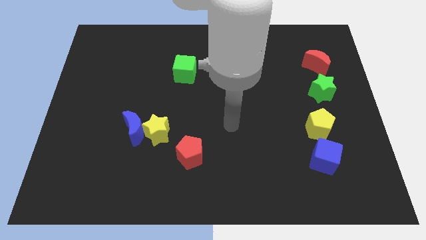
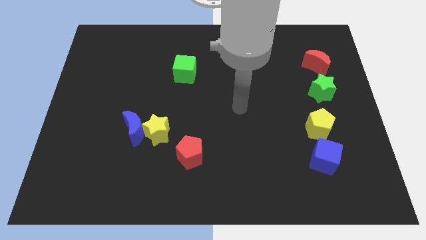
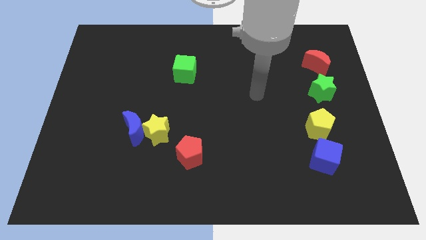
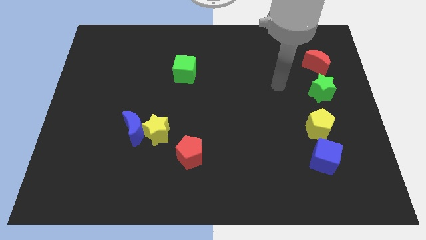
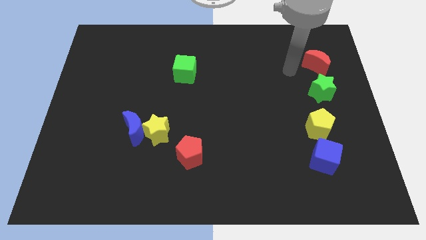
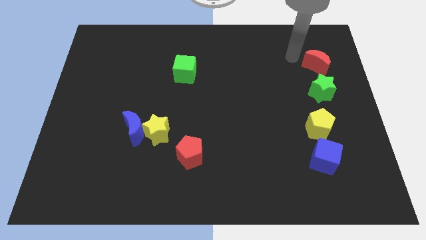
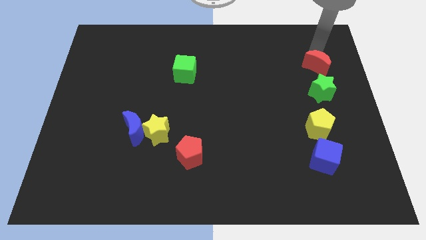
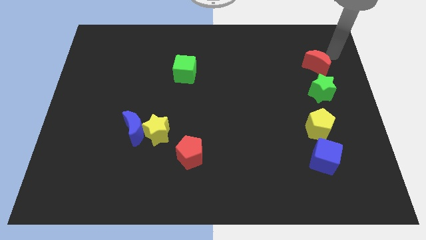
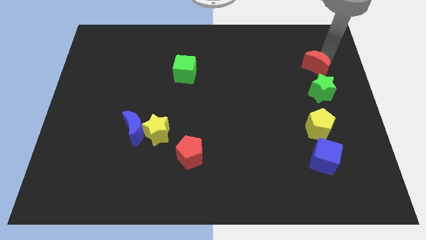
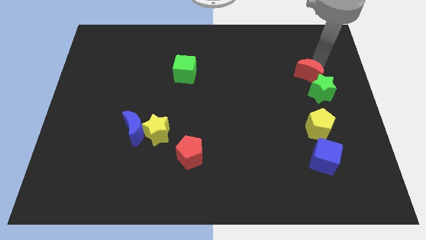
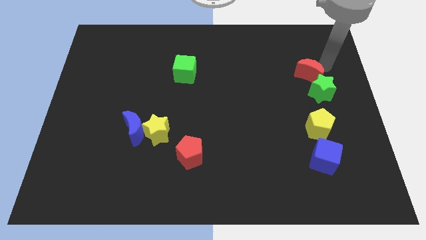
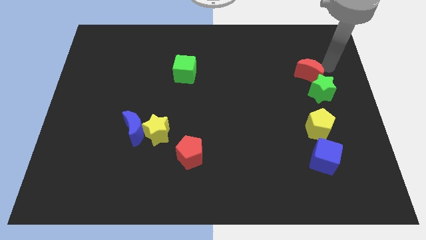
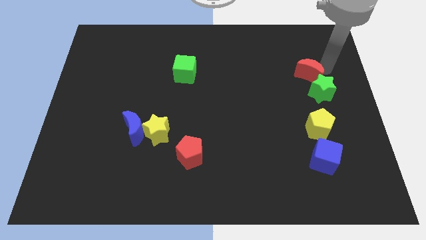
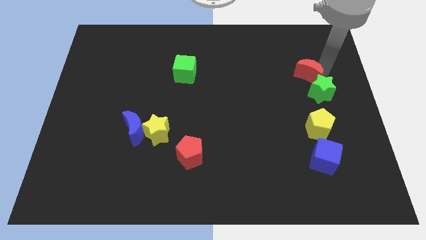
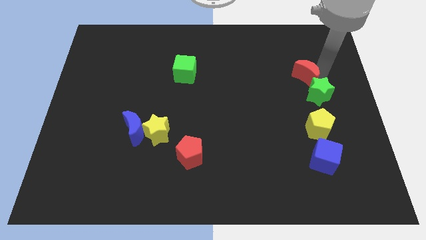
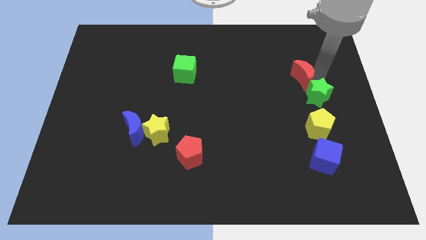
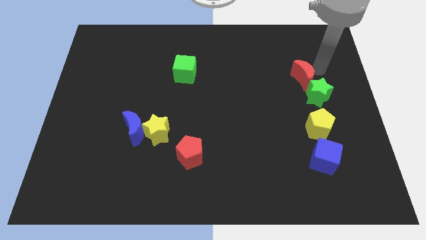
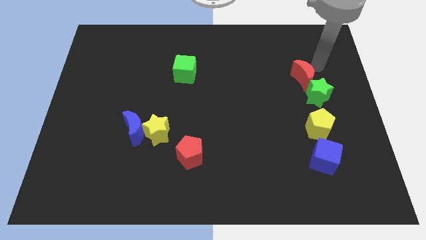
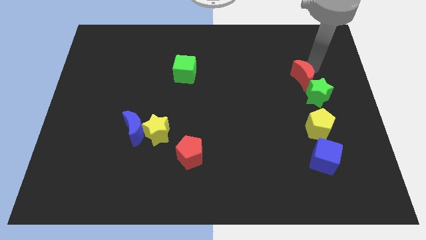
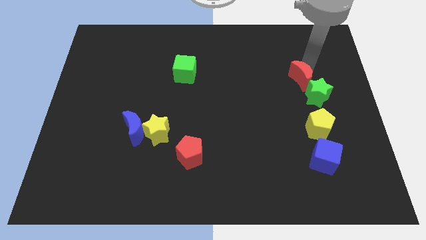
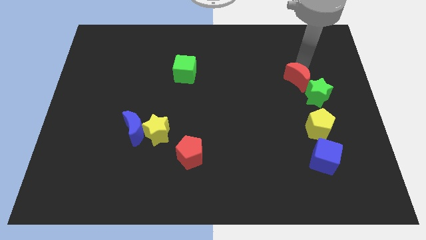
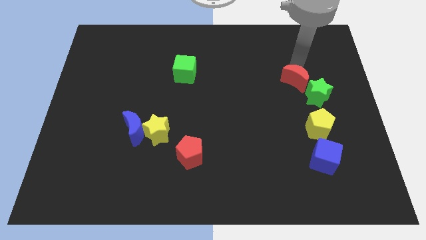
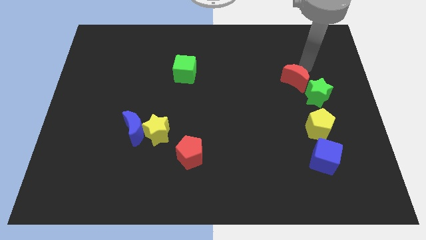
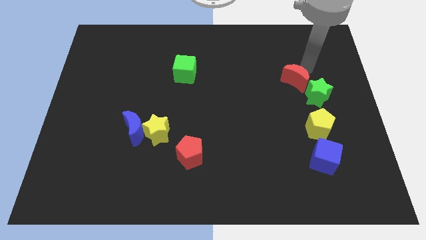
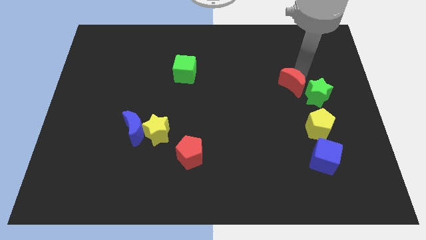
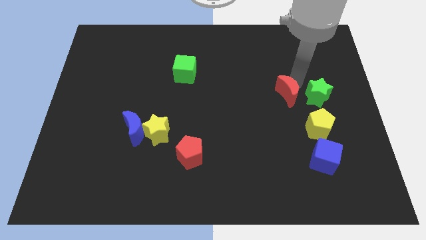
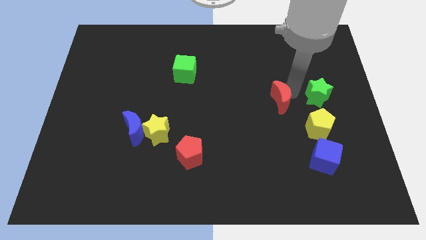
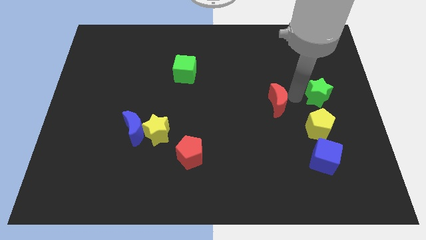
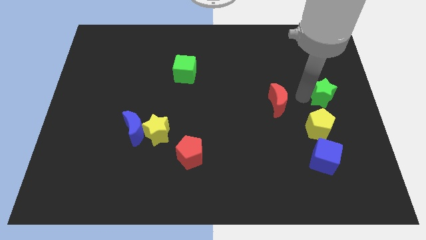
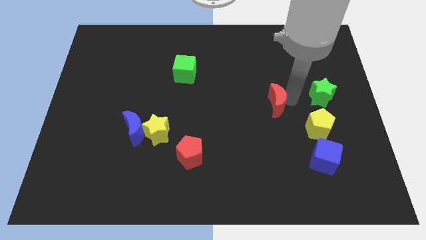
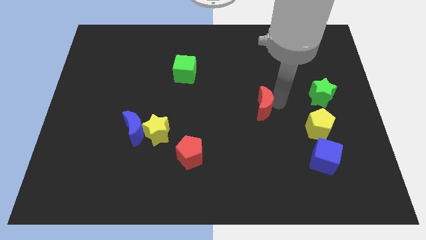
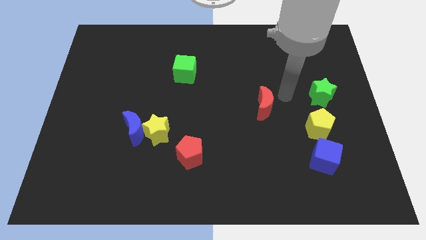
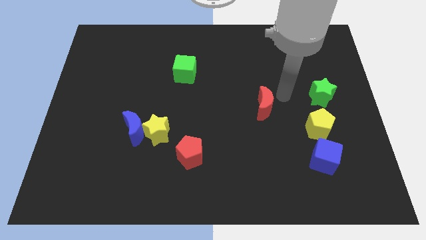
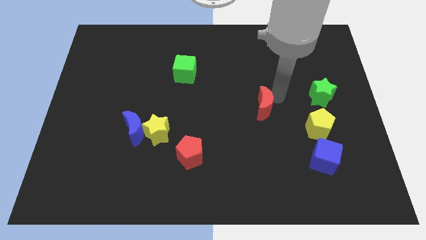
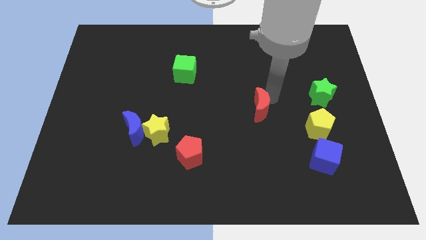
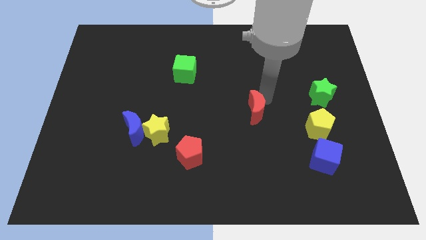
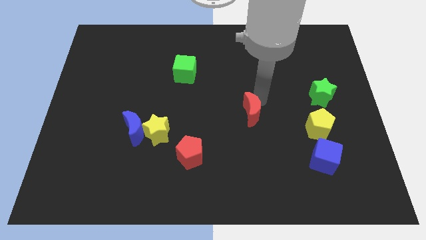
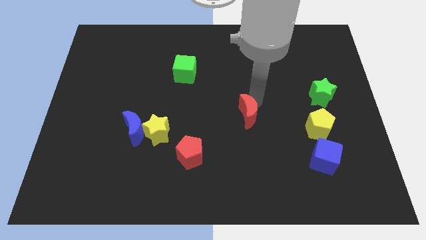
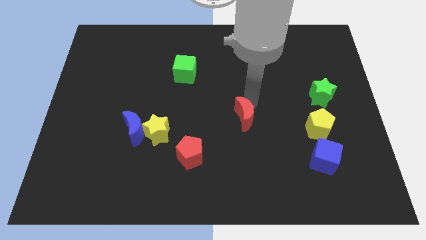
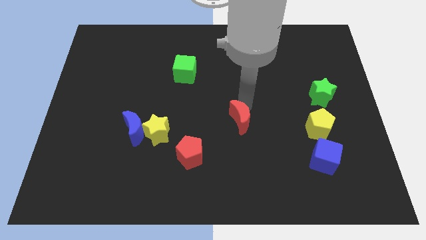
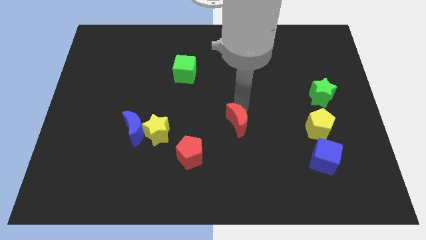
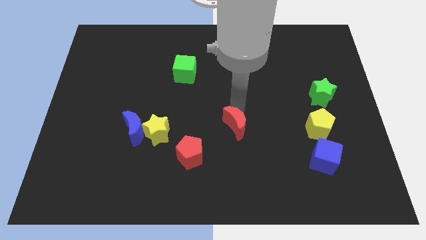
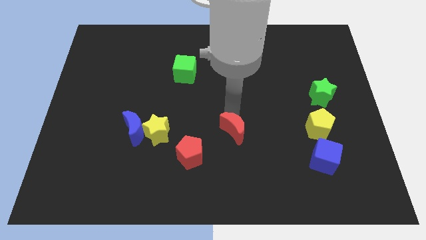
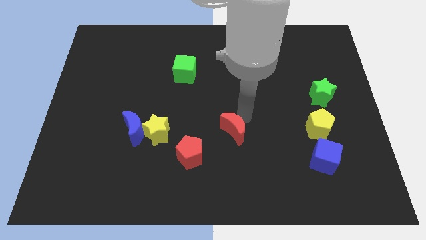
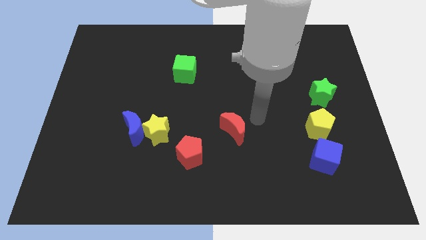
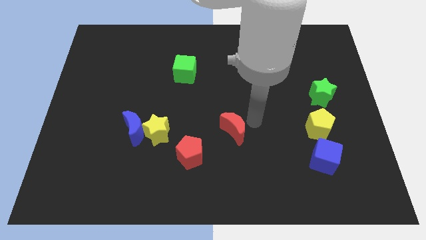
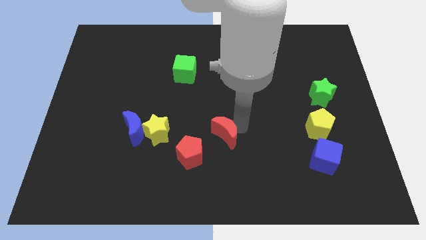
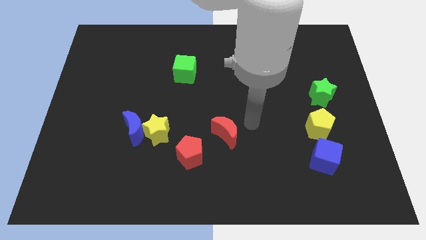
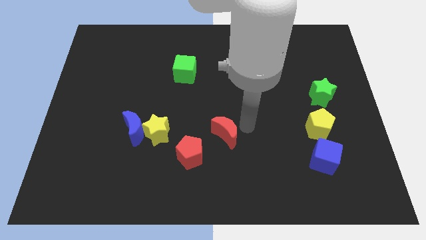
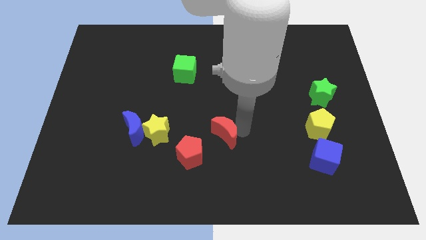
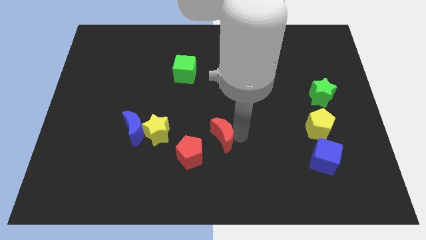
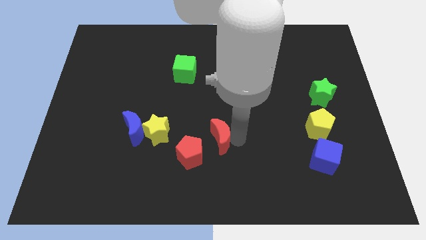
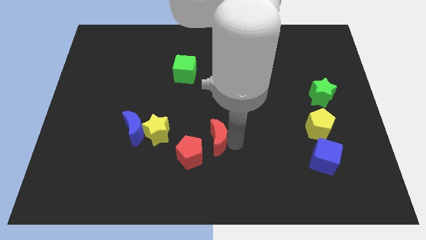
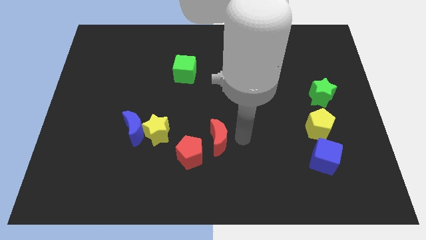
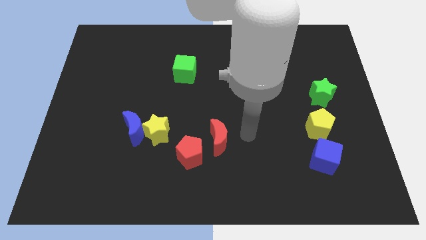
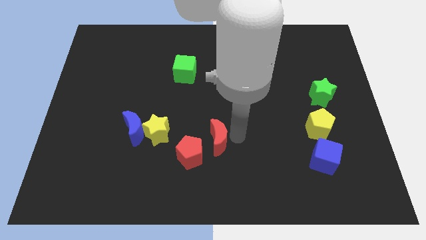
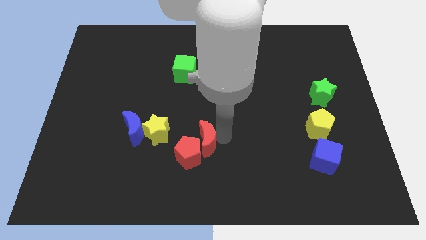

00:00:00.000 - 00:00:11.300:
slide the red moon to the red pentagon

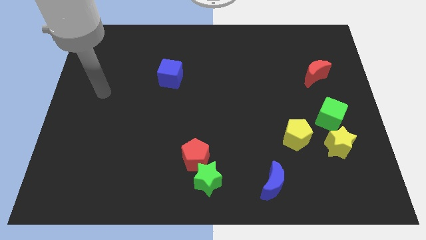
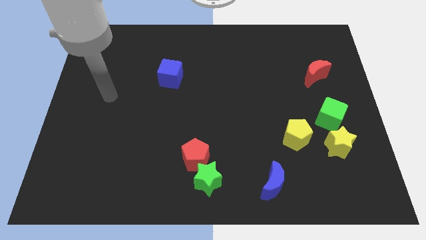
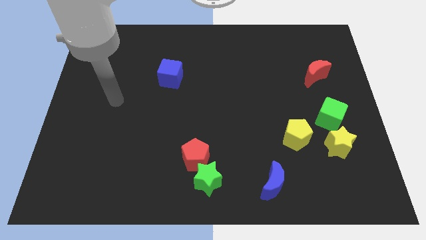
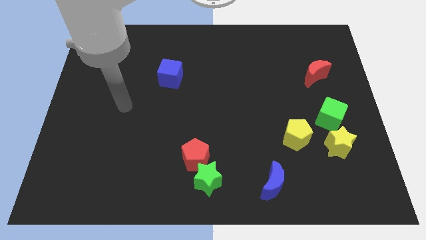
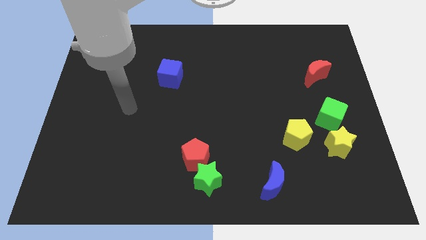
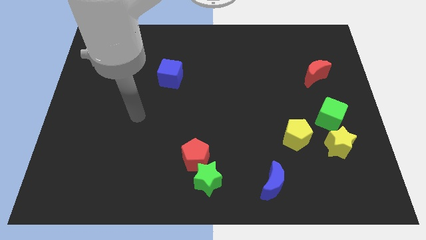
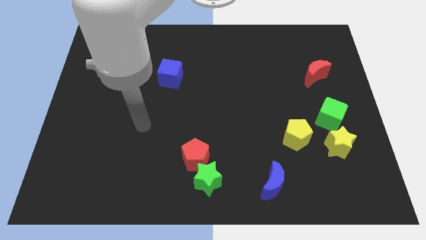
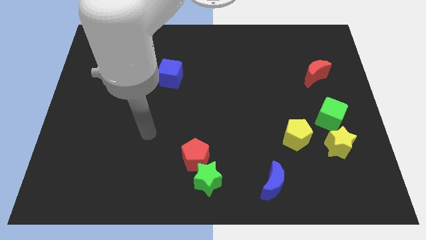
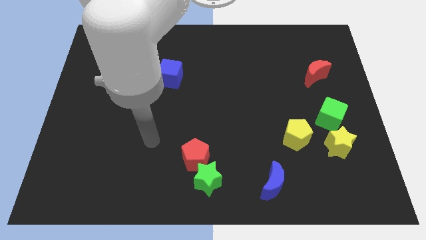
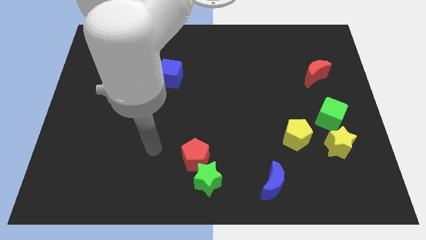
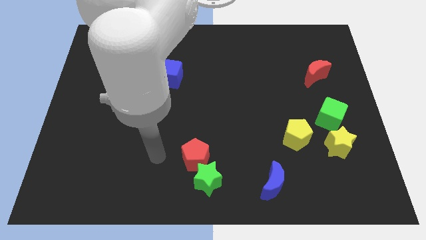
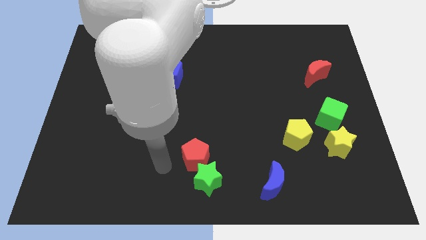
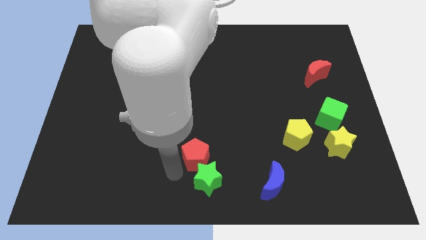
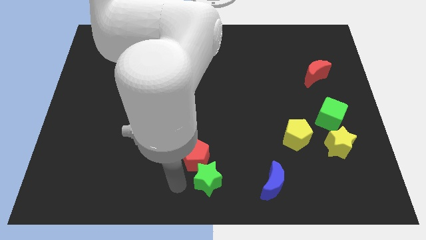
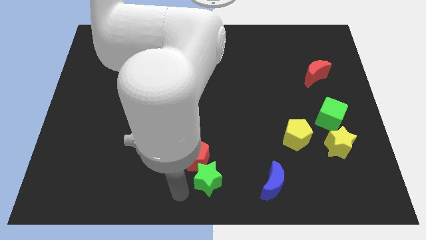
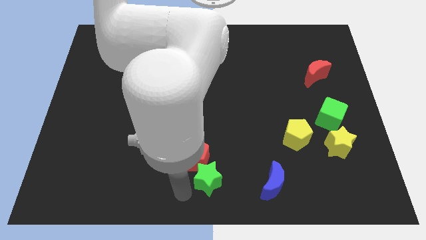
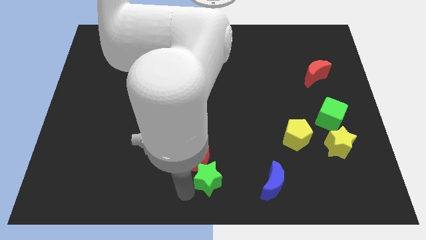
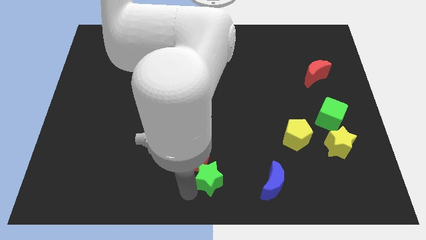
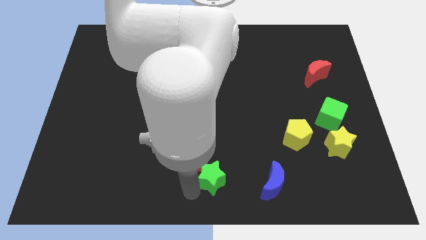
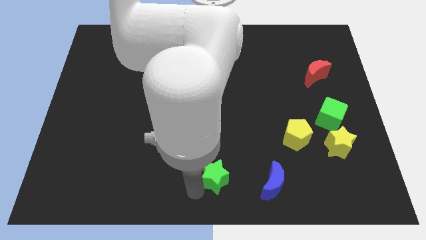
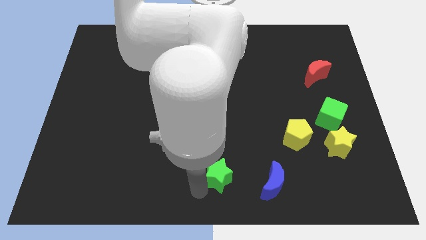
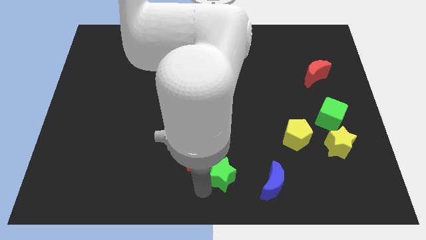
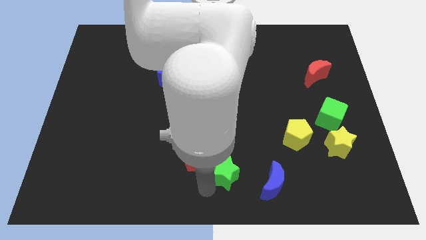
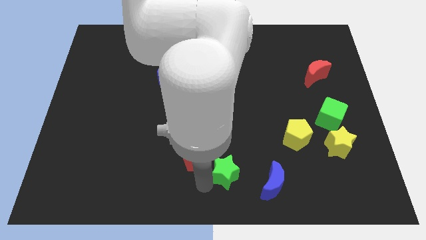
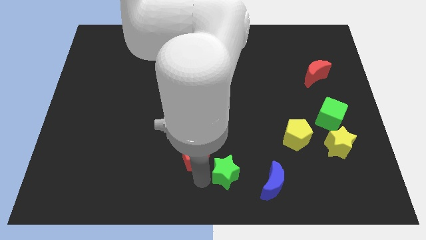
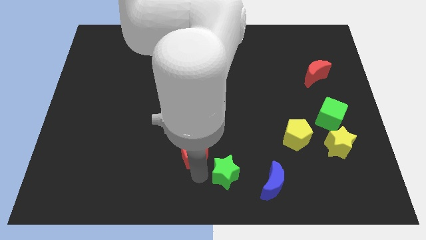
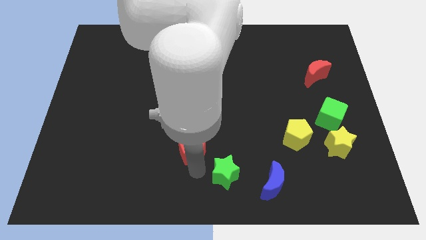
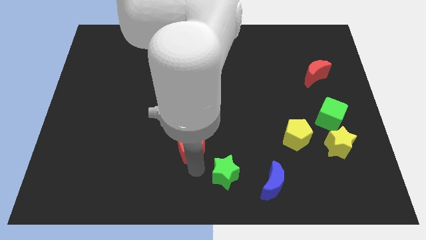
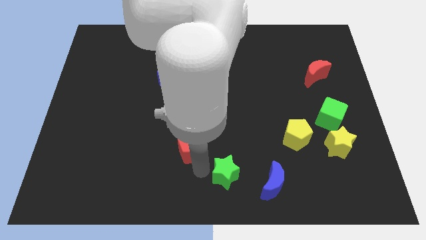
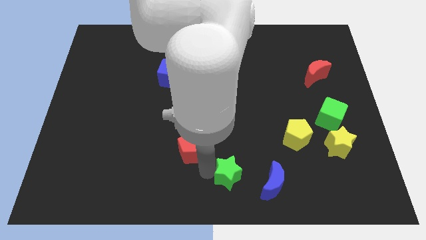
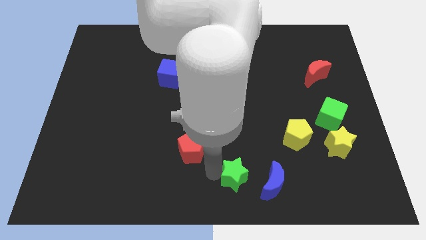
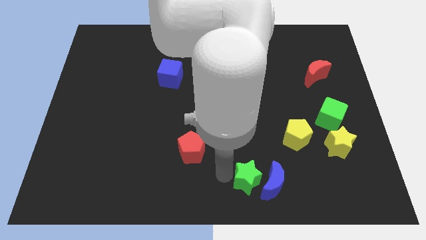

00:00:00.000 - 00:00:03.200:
push the green star to the blue moon
